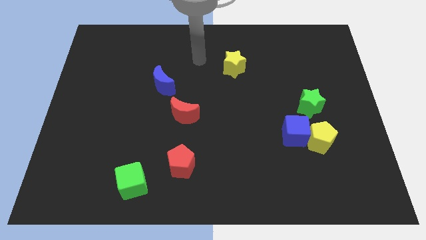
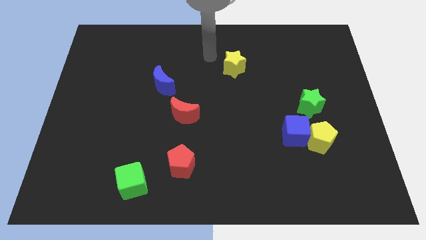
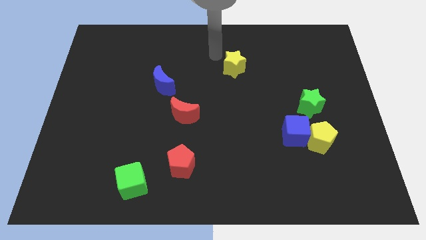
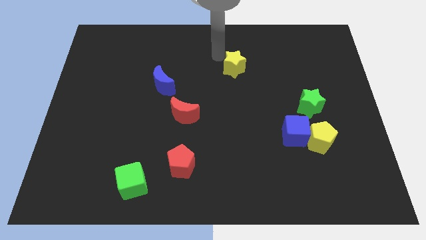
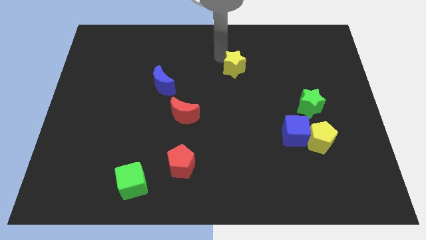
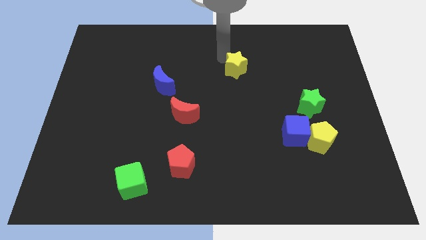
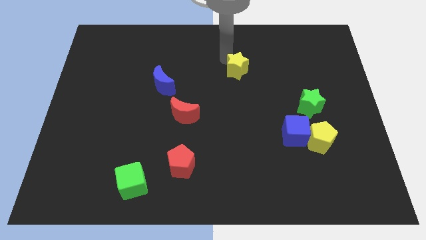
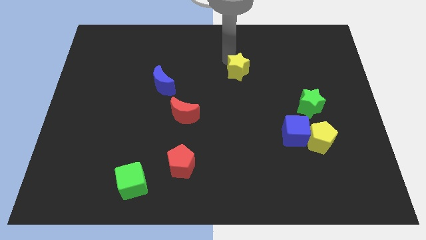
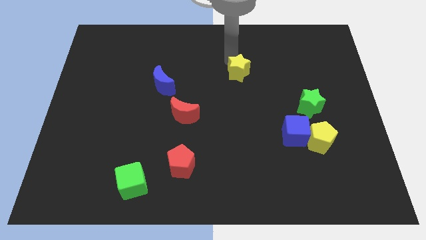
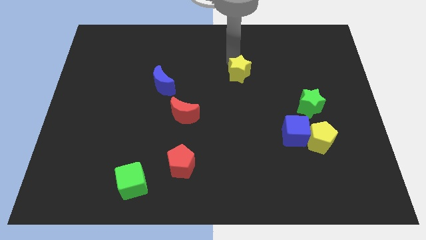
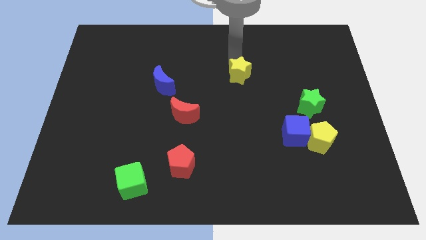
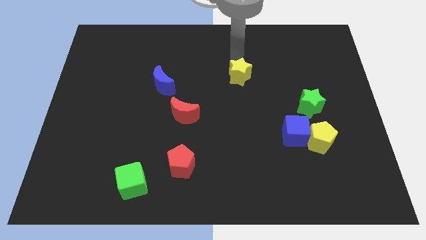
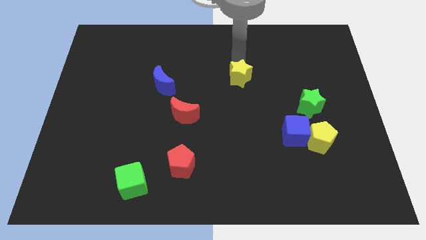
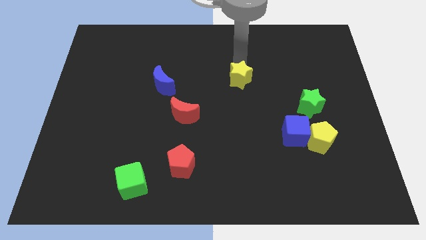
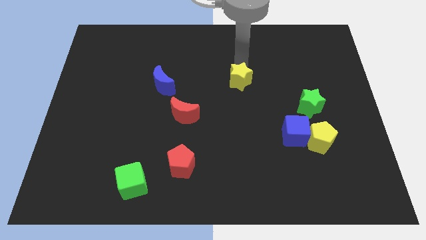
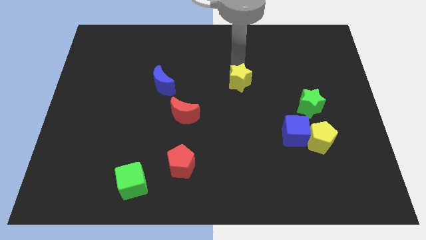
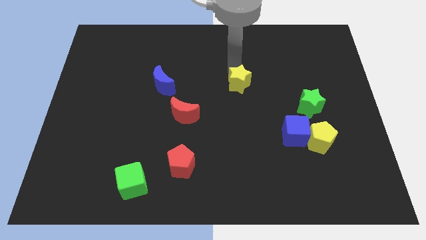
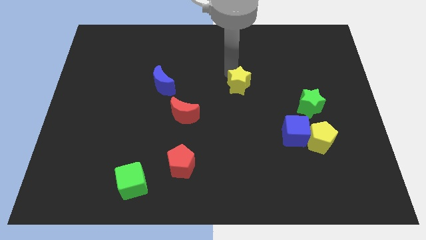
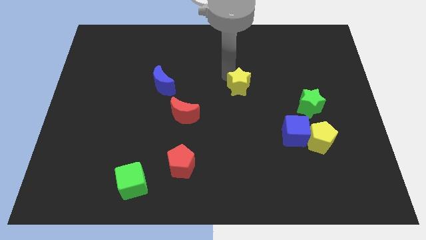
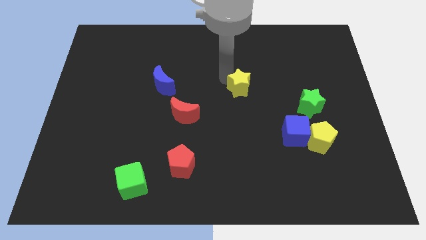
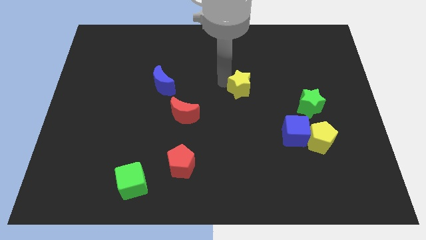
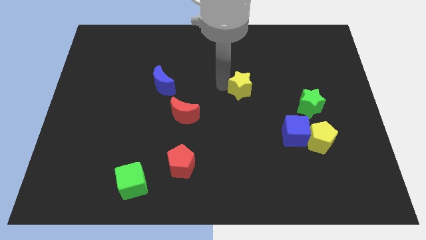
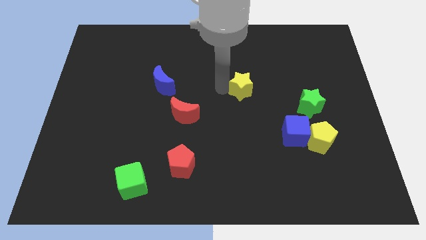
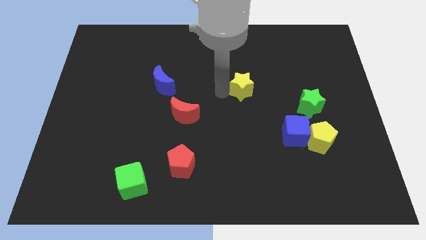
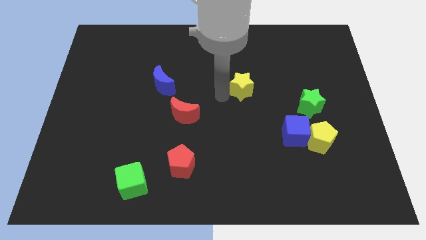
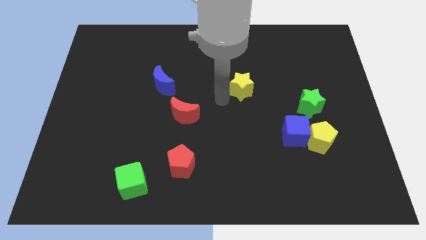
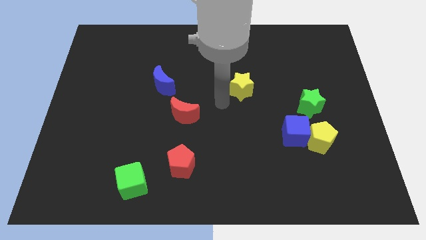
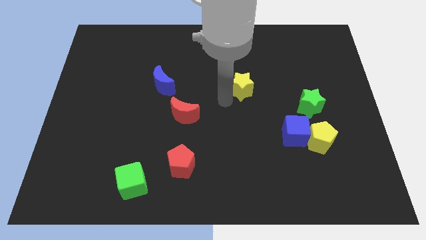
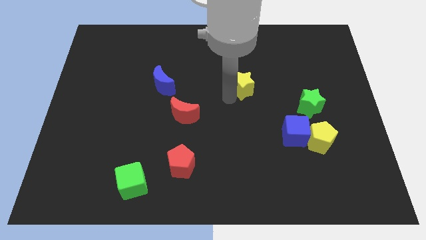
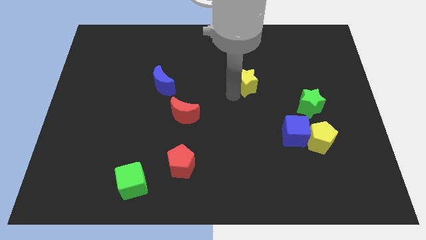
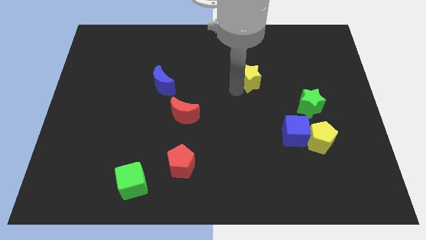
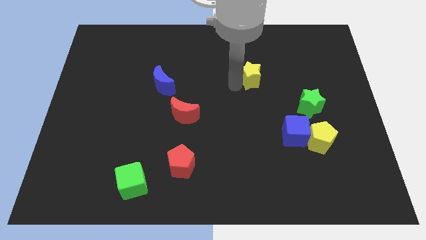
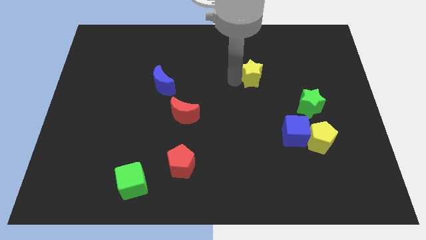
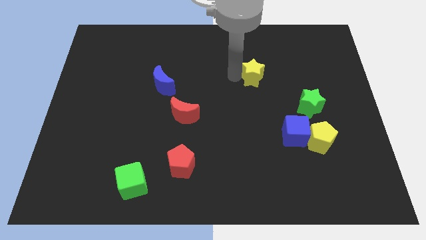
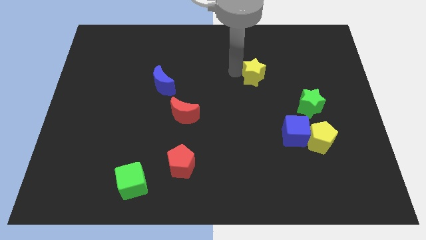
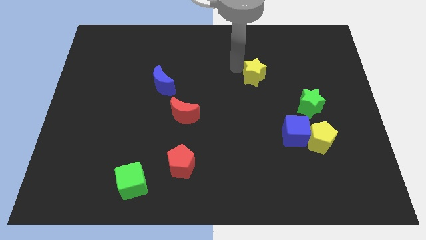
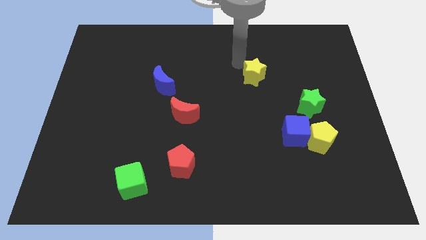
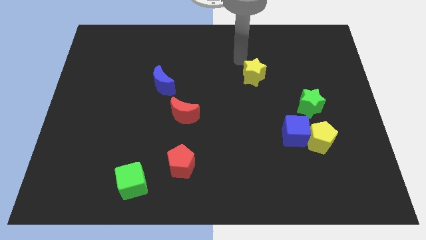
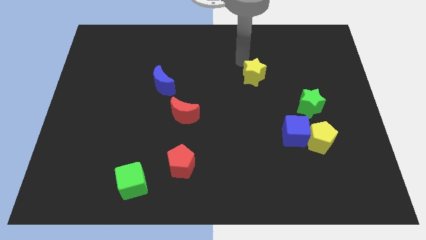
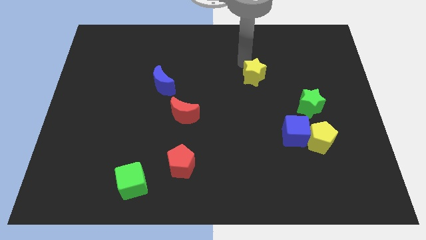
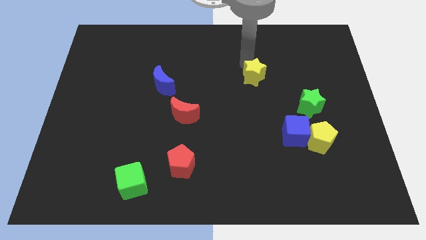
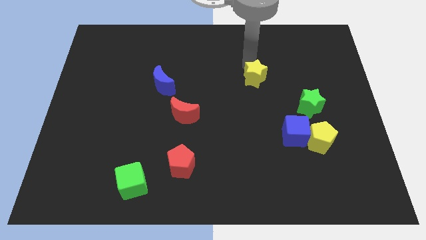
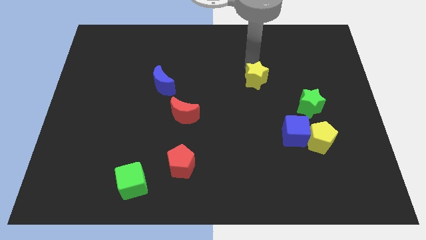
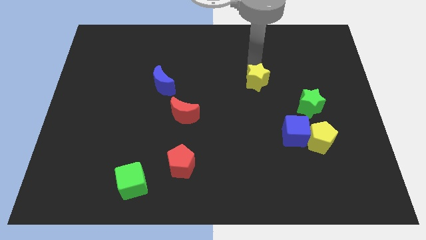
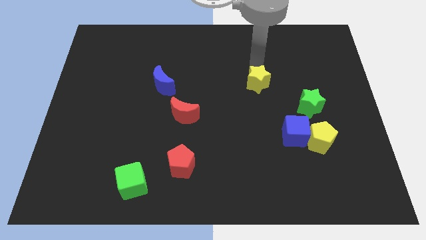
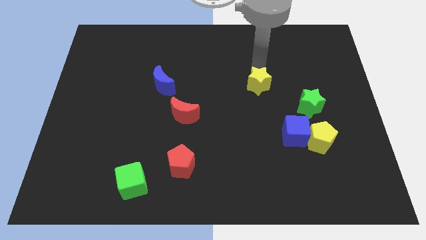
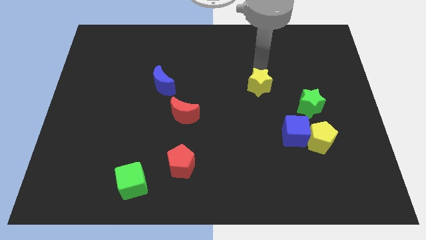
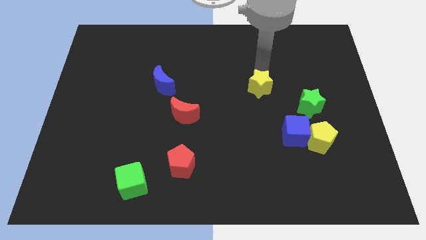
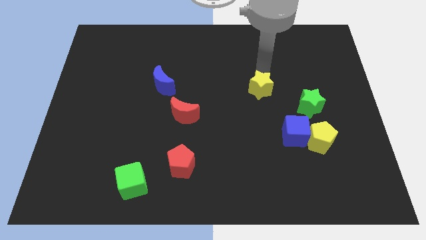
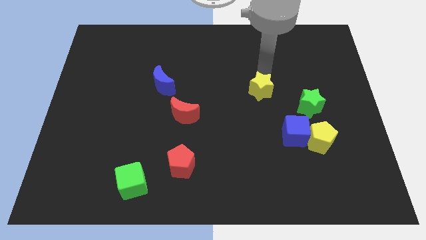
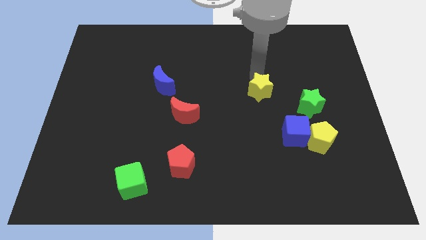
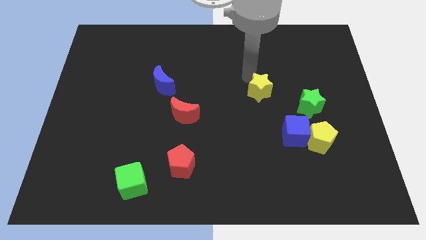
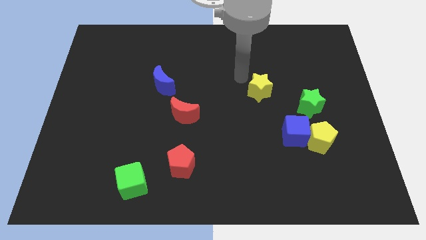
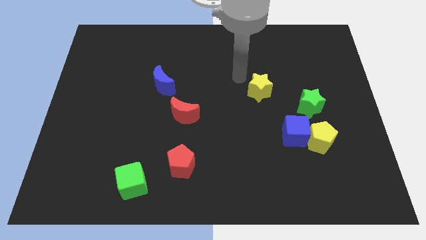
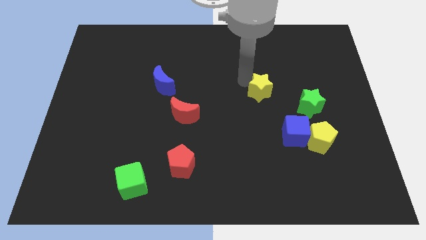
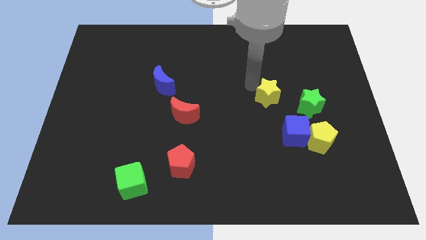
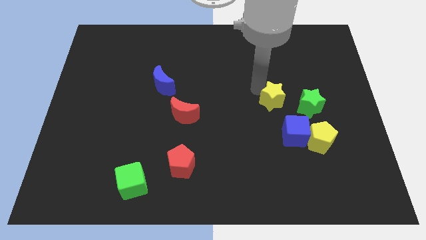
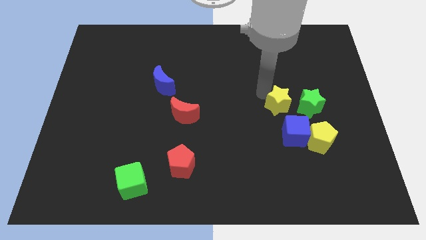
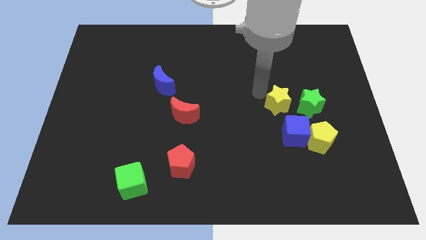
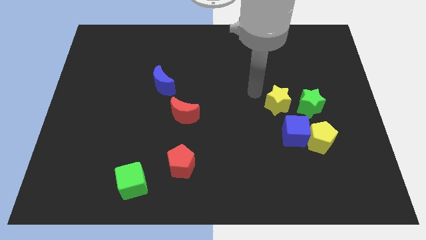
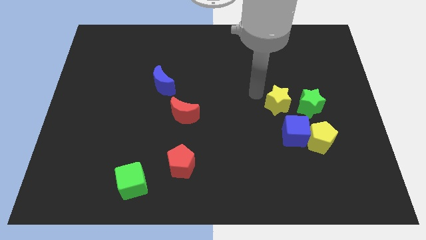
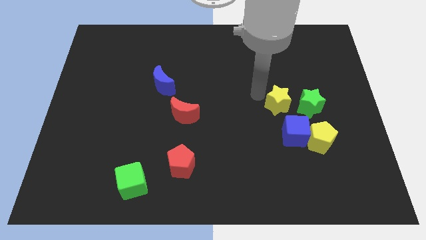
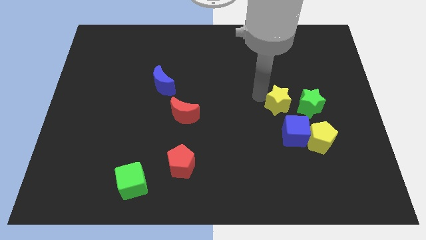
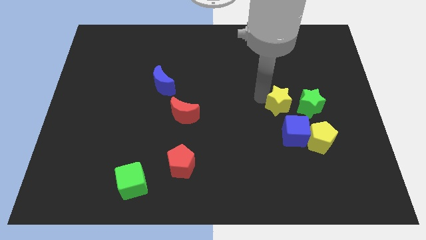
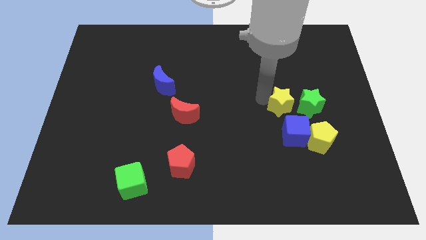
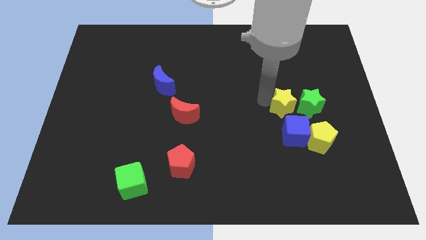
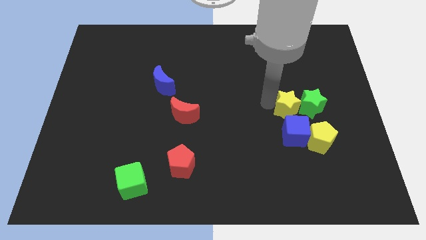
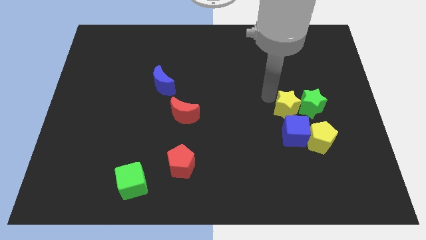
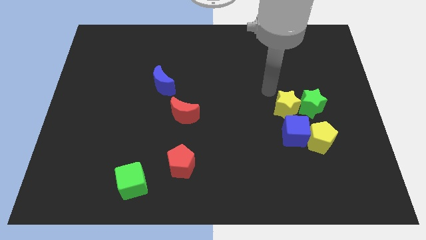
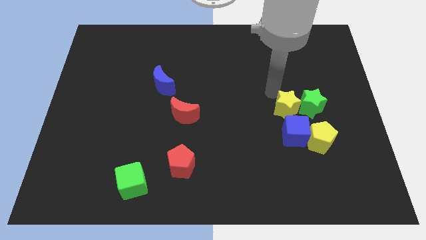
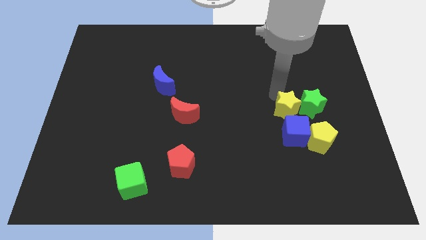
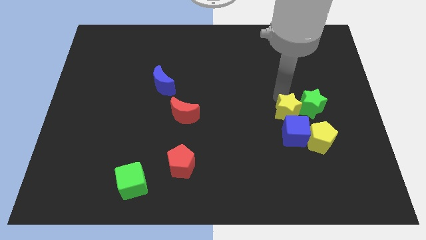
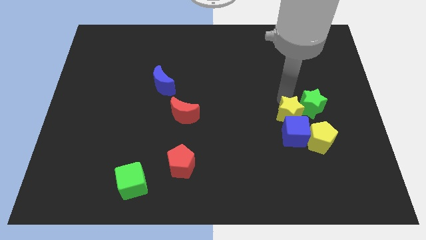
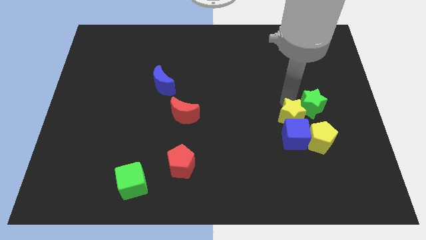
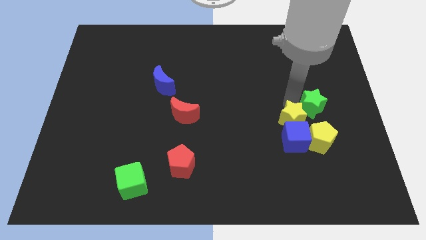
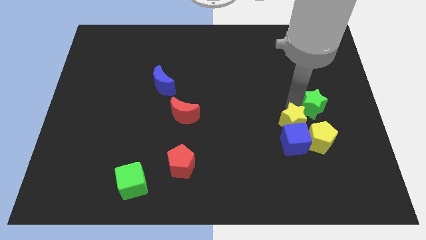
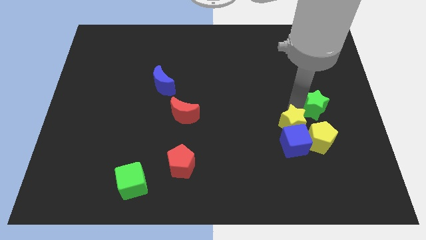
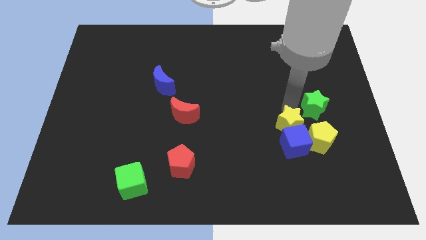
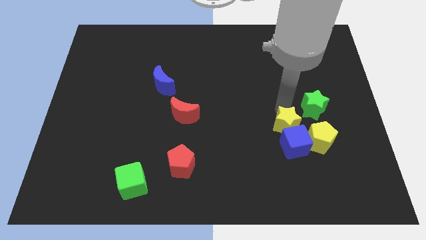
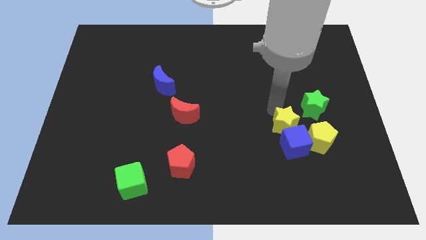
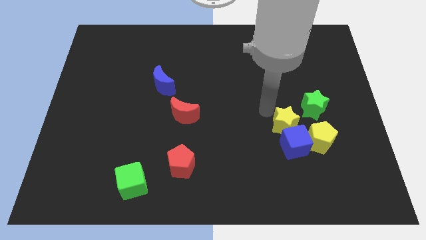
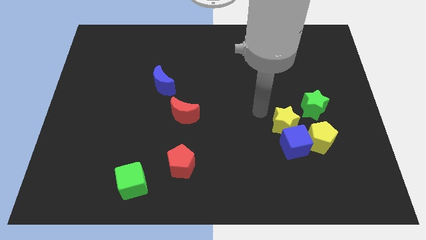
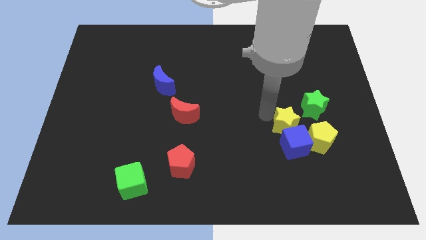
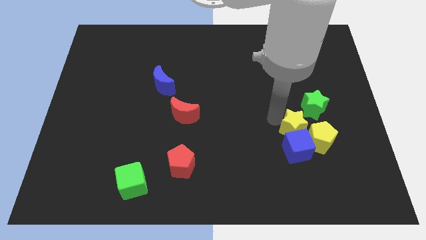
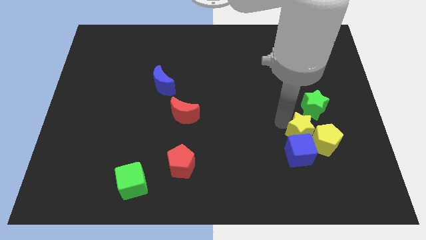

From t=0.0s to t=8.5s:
slide the yellow star to the yellow pentagon
